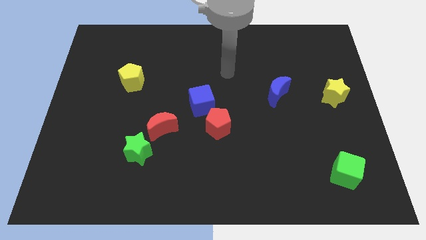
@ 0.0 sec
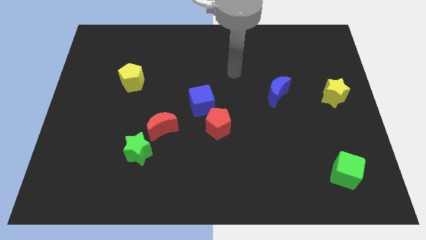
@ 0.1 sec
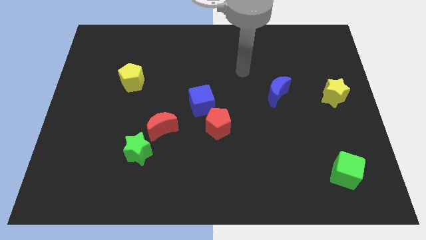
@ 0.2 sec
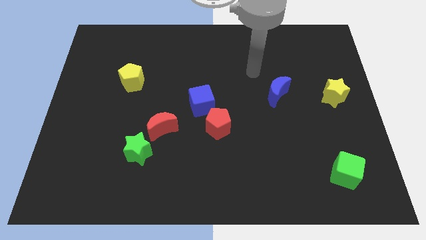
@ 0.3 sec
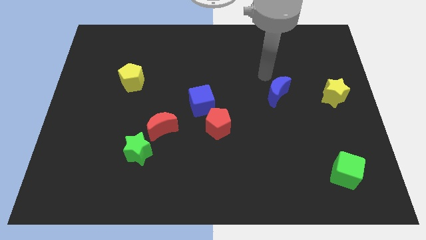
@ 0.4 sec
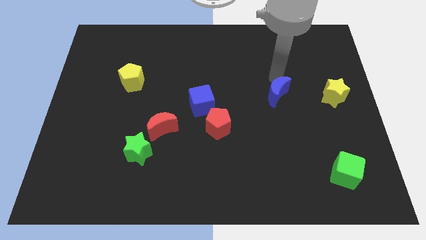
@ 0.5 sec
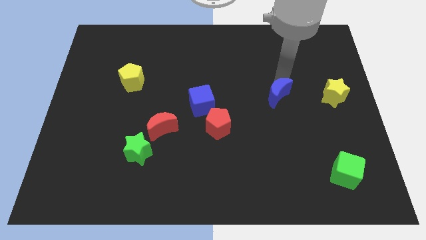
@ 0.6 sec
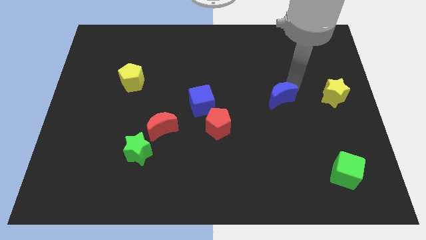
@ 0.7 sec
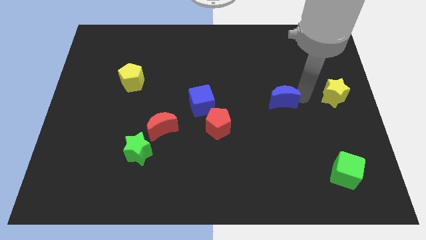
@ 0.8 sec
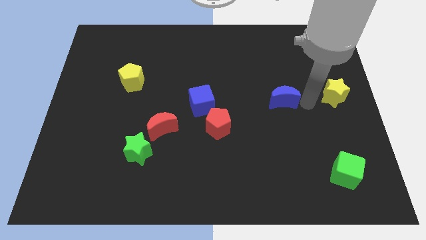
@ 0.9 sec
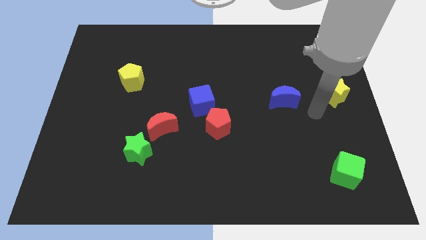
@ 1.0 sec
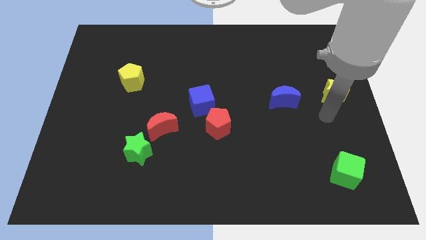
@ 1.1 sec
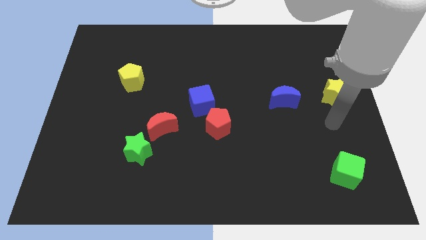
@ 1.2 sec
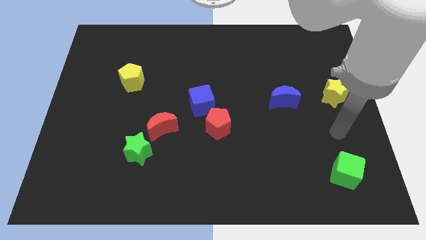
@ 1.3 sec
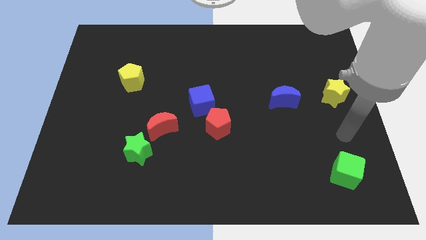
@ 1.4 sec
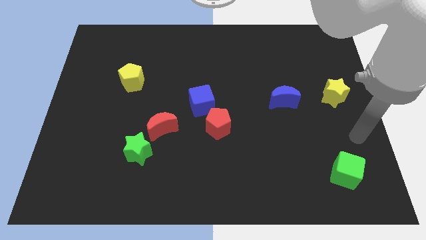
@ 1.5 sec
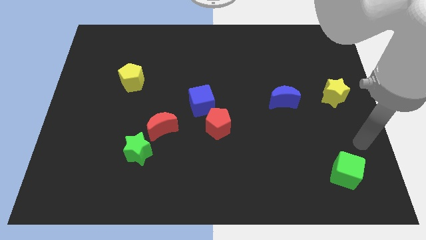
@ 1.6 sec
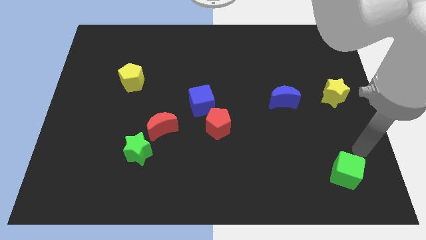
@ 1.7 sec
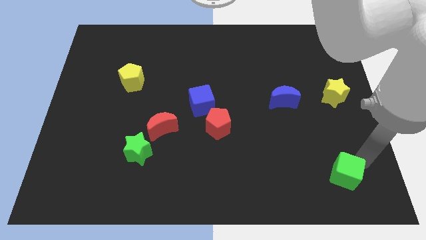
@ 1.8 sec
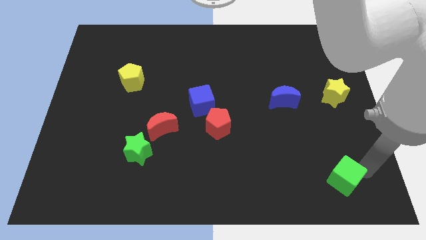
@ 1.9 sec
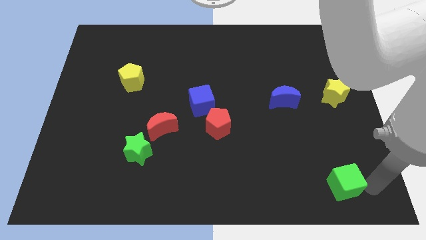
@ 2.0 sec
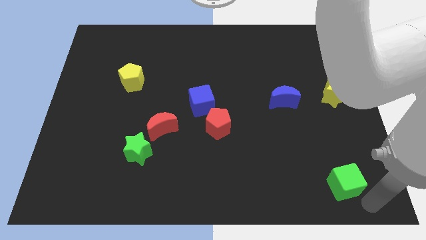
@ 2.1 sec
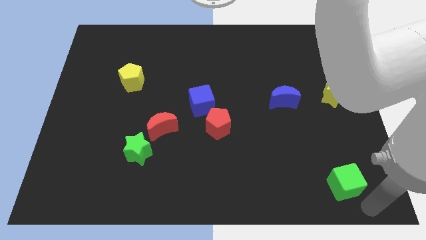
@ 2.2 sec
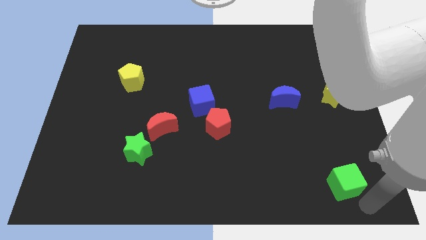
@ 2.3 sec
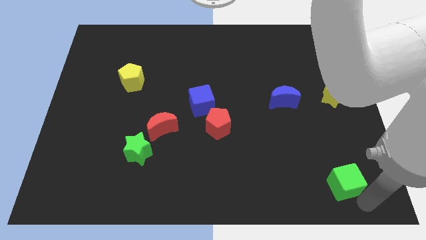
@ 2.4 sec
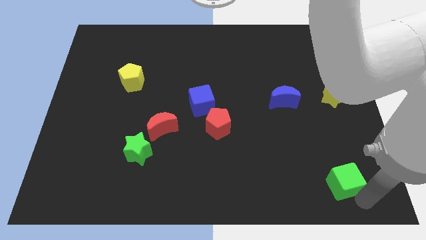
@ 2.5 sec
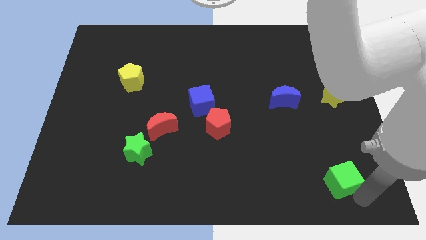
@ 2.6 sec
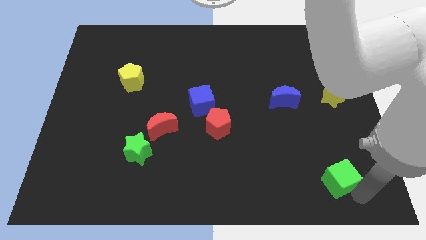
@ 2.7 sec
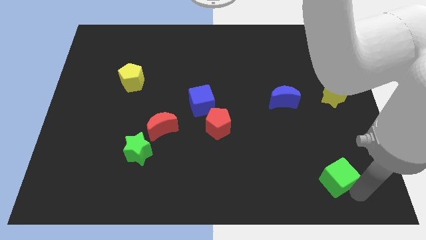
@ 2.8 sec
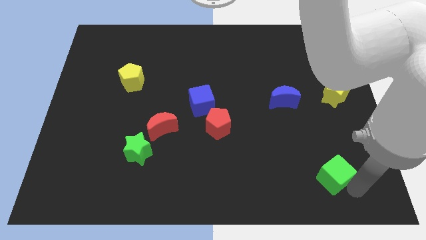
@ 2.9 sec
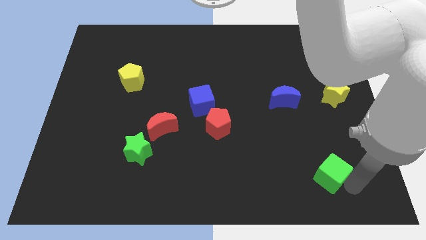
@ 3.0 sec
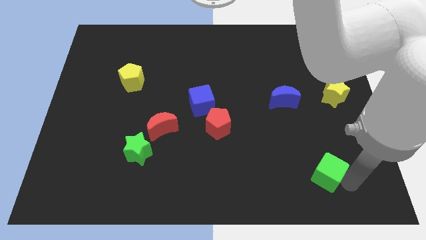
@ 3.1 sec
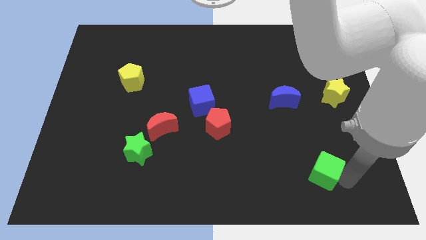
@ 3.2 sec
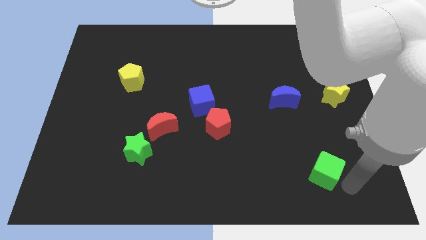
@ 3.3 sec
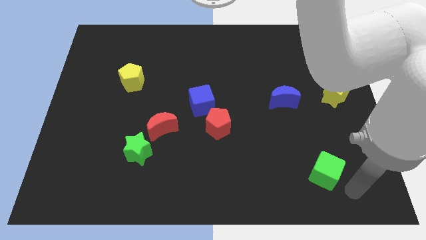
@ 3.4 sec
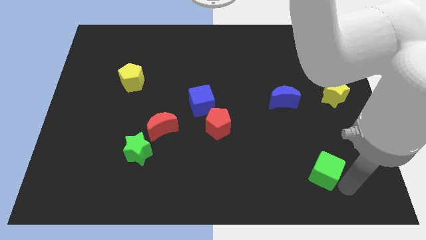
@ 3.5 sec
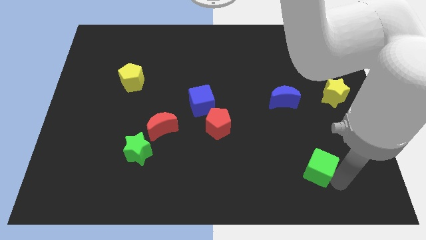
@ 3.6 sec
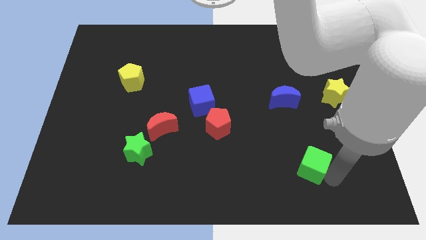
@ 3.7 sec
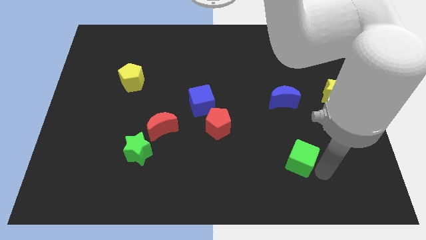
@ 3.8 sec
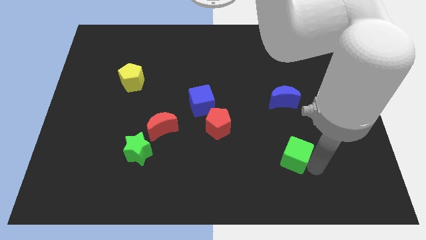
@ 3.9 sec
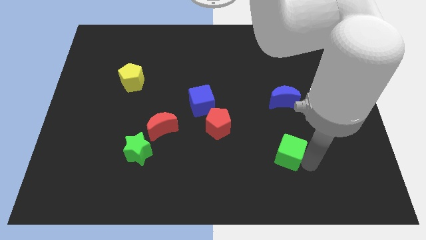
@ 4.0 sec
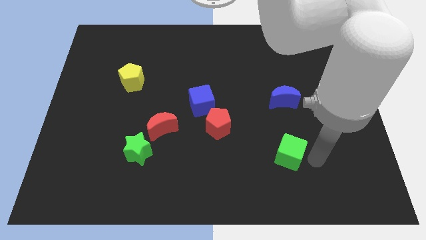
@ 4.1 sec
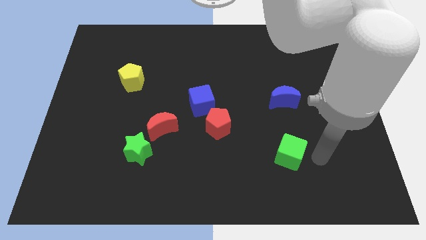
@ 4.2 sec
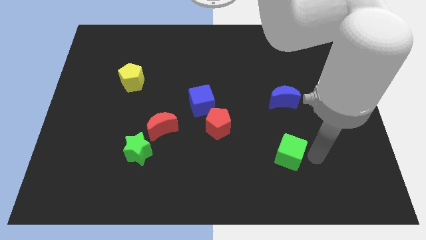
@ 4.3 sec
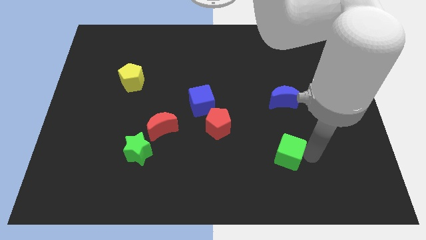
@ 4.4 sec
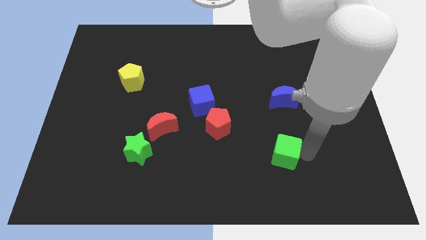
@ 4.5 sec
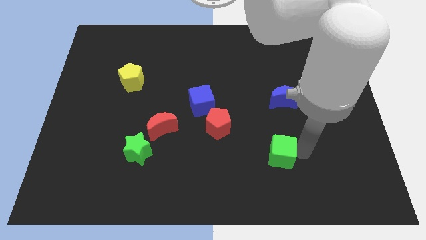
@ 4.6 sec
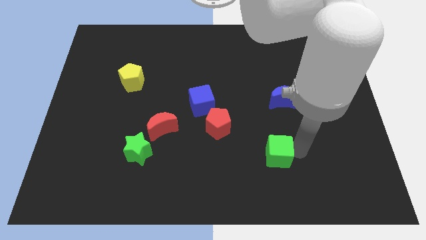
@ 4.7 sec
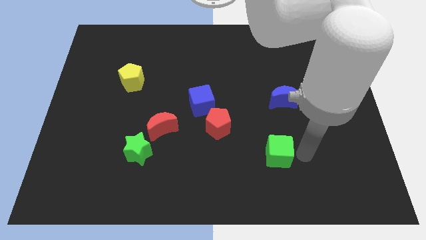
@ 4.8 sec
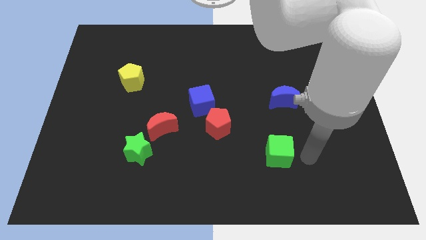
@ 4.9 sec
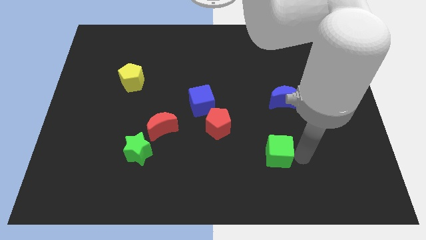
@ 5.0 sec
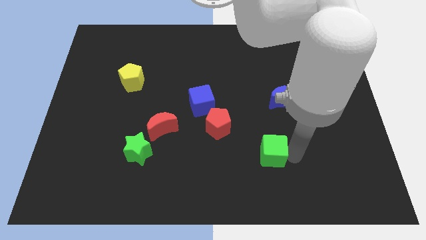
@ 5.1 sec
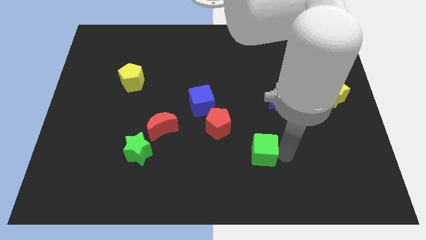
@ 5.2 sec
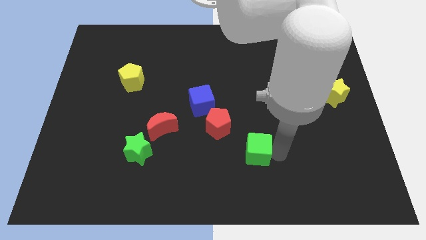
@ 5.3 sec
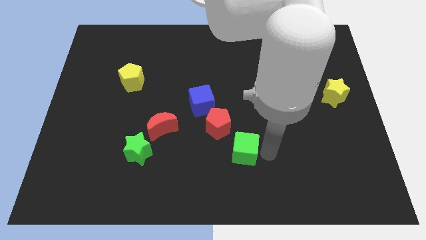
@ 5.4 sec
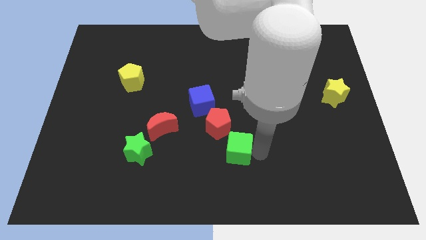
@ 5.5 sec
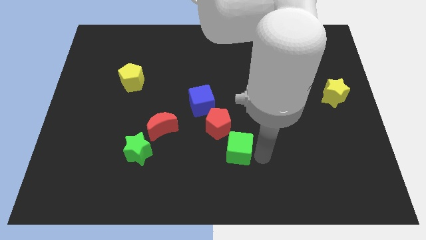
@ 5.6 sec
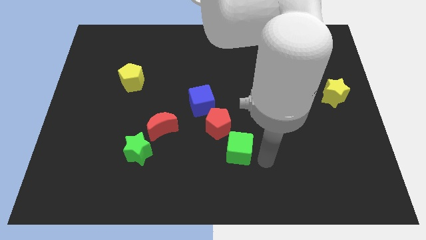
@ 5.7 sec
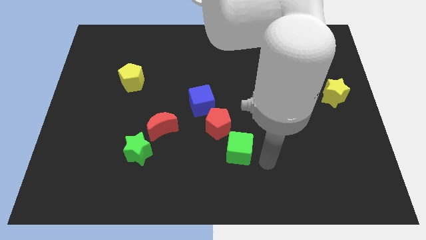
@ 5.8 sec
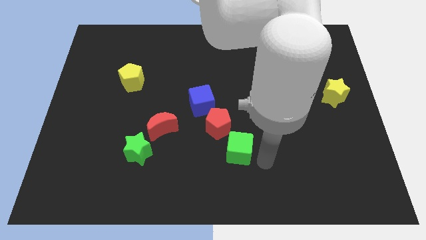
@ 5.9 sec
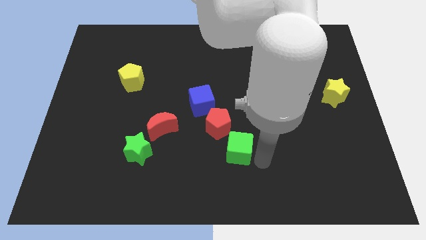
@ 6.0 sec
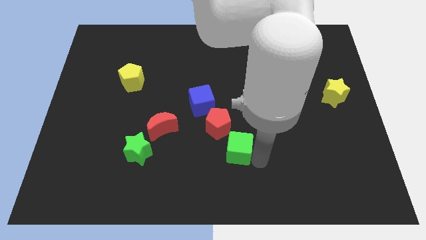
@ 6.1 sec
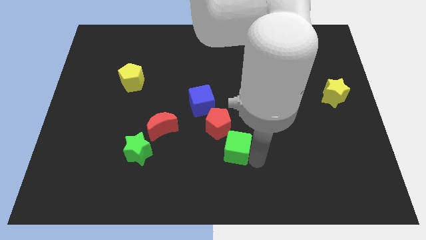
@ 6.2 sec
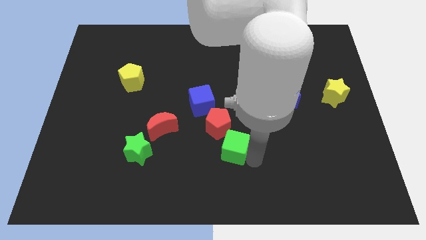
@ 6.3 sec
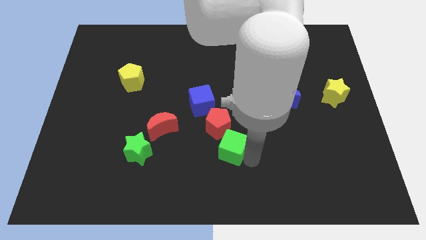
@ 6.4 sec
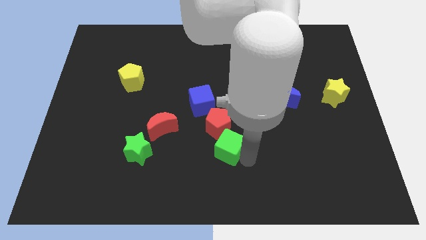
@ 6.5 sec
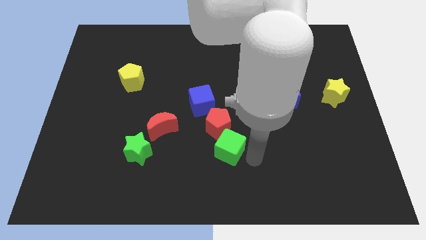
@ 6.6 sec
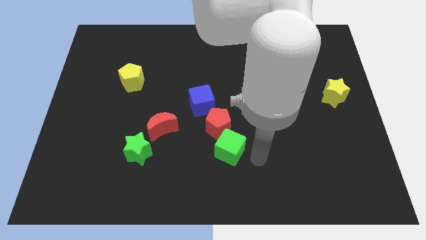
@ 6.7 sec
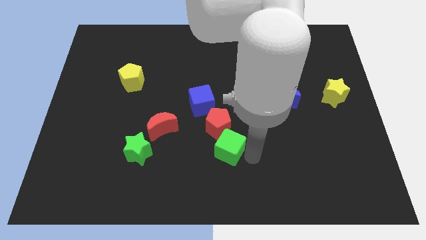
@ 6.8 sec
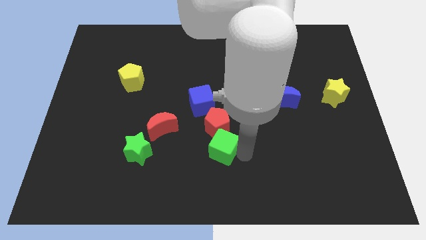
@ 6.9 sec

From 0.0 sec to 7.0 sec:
push the green cube to the bottom side of the blue cube
